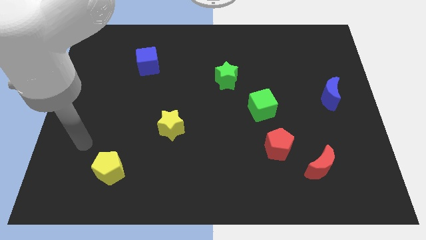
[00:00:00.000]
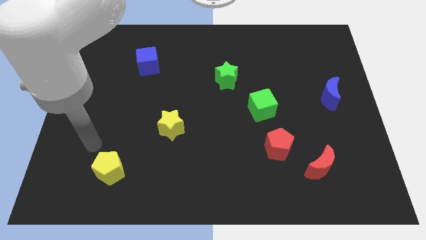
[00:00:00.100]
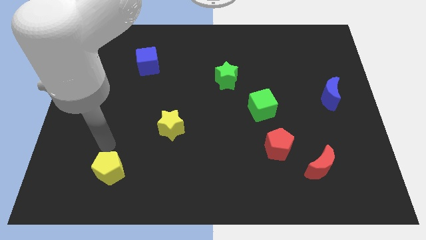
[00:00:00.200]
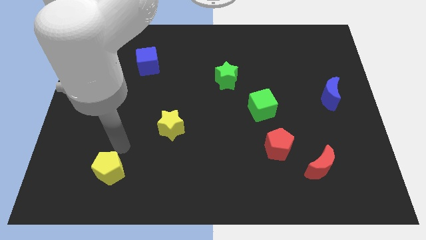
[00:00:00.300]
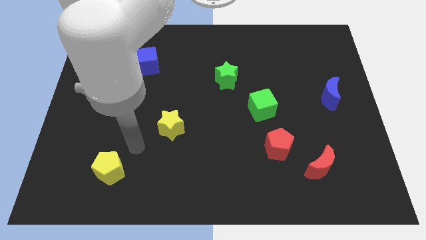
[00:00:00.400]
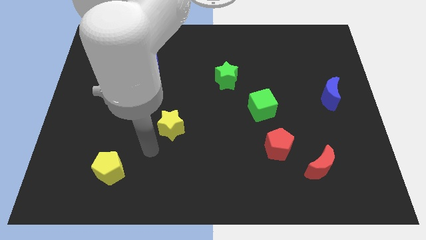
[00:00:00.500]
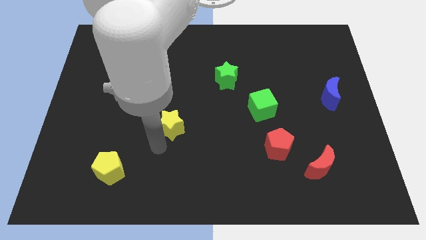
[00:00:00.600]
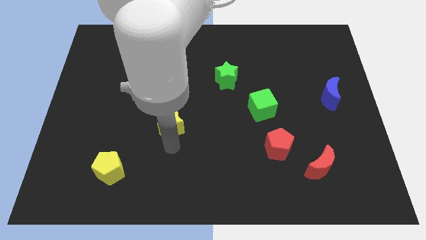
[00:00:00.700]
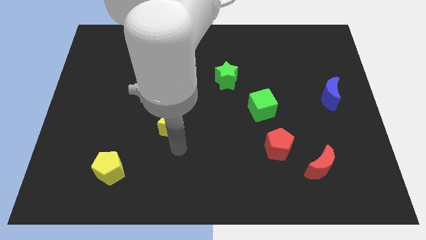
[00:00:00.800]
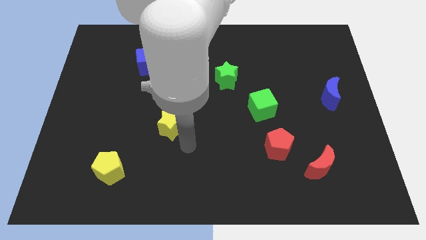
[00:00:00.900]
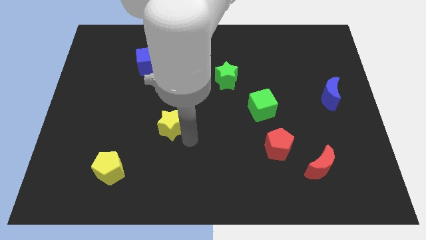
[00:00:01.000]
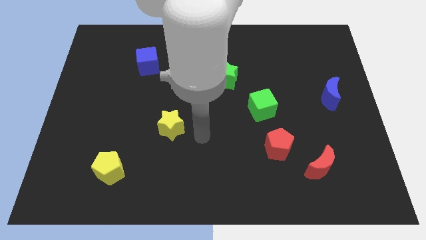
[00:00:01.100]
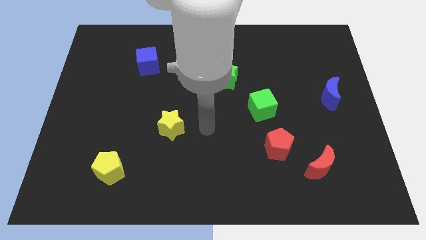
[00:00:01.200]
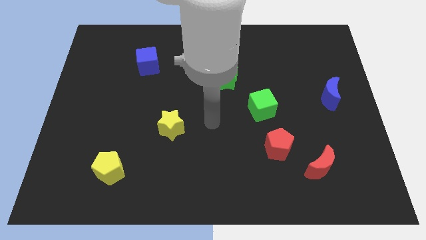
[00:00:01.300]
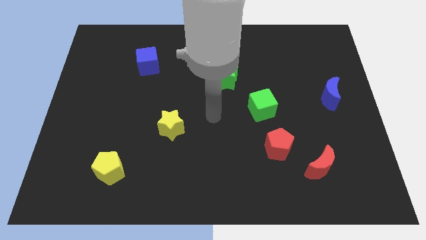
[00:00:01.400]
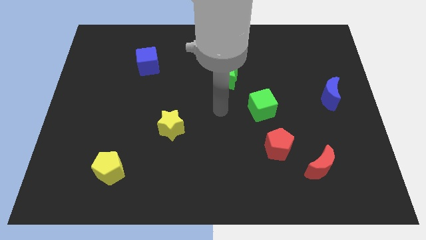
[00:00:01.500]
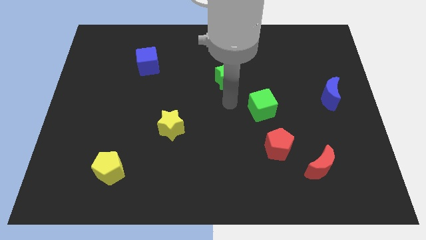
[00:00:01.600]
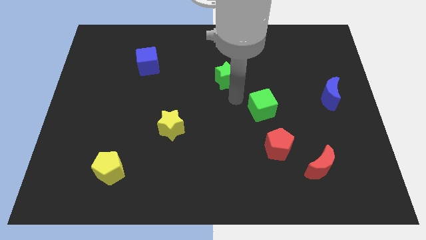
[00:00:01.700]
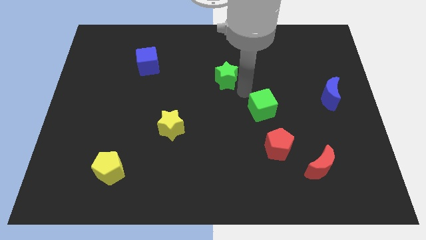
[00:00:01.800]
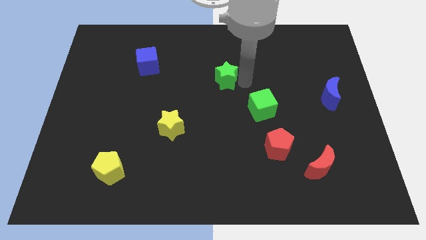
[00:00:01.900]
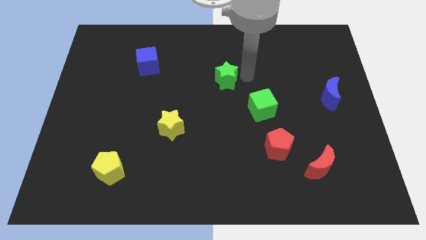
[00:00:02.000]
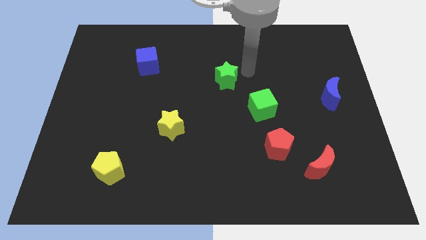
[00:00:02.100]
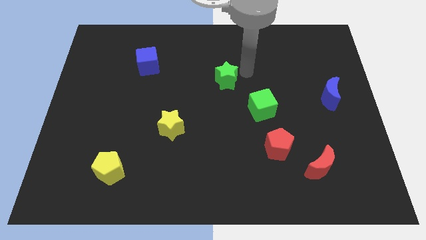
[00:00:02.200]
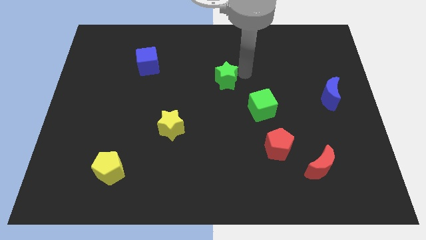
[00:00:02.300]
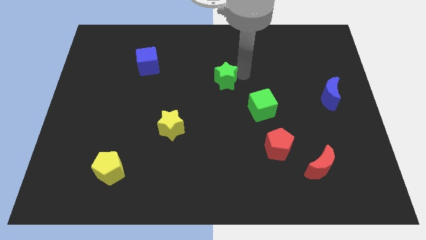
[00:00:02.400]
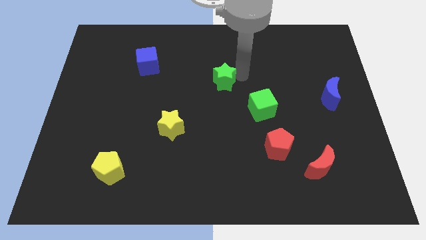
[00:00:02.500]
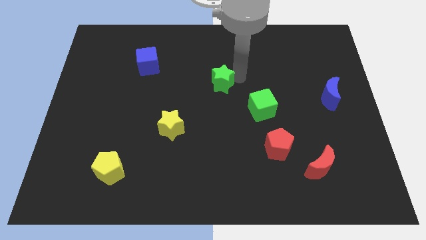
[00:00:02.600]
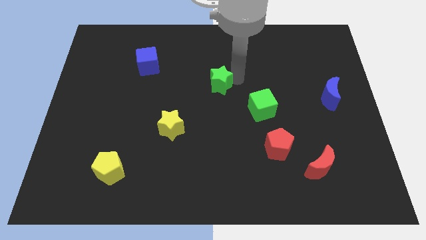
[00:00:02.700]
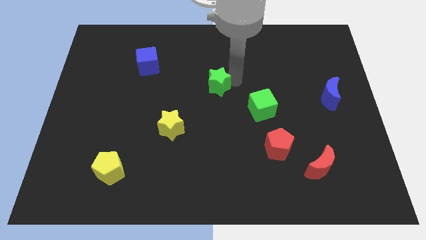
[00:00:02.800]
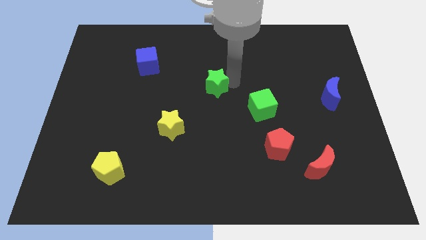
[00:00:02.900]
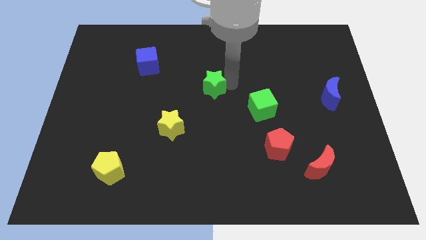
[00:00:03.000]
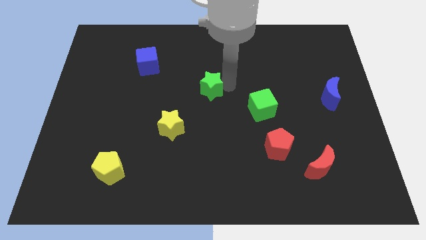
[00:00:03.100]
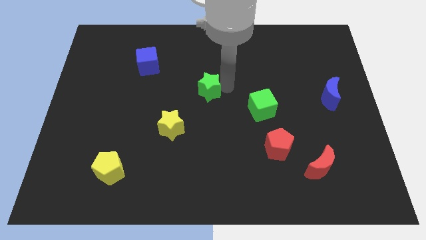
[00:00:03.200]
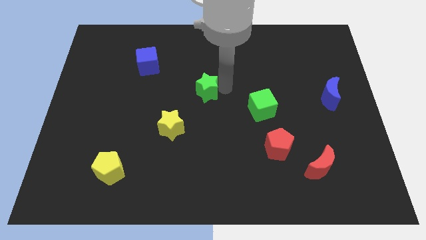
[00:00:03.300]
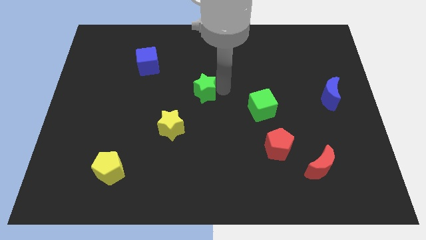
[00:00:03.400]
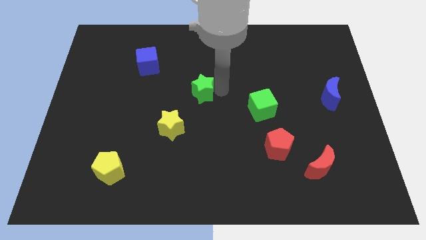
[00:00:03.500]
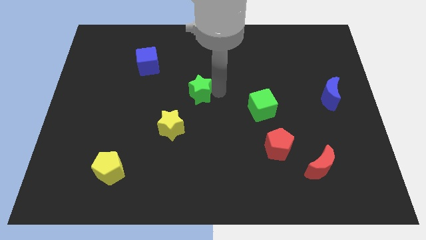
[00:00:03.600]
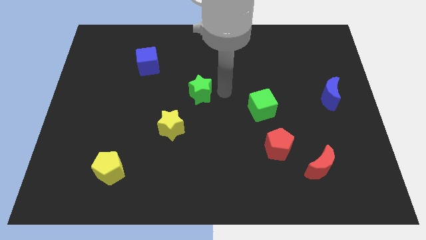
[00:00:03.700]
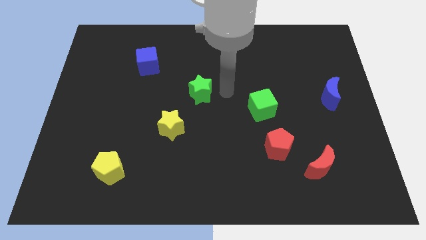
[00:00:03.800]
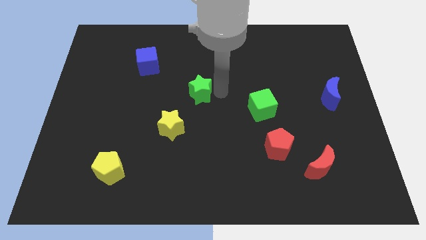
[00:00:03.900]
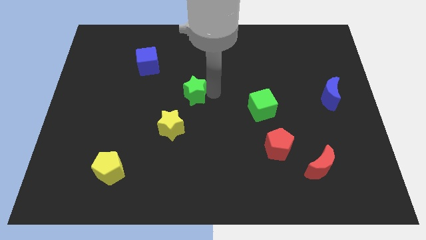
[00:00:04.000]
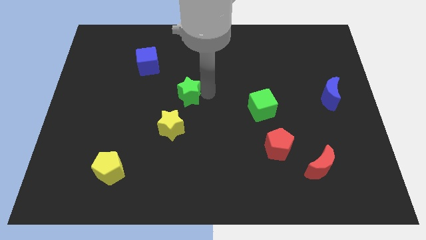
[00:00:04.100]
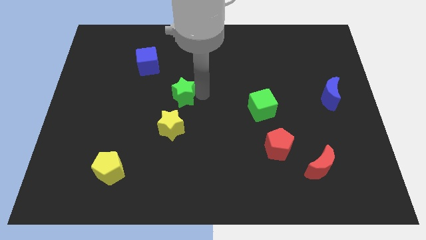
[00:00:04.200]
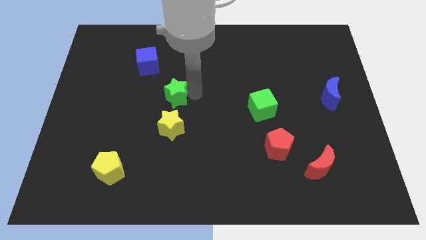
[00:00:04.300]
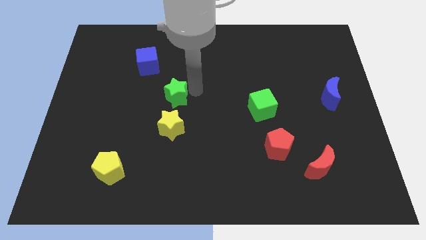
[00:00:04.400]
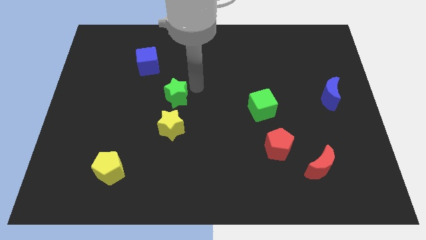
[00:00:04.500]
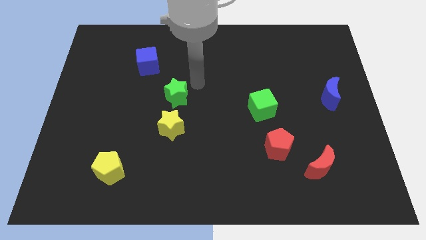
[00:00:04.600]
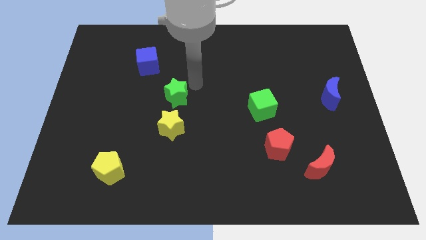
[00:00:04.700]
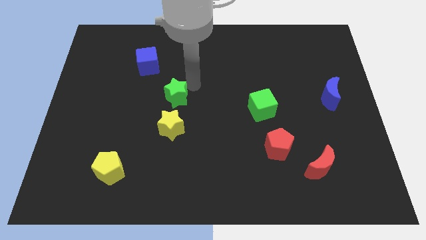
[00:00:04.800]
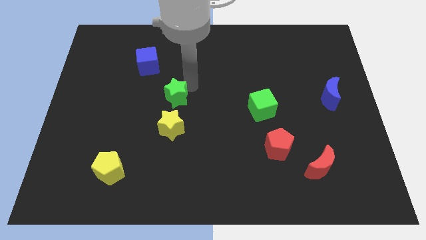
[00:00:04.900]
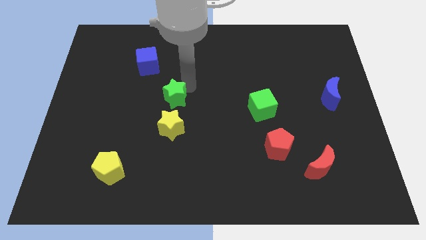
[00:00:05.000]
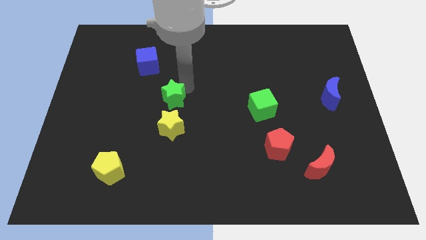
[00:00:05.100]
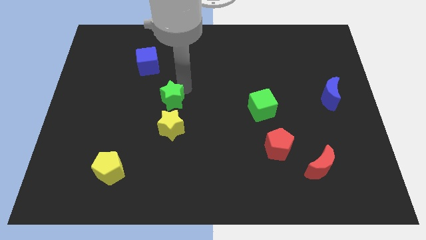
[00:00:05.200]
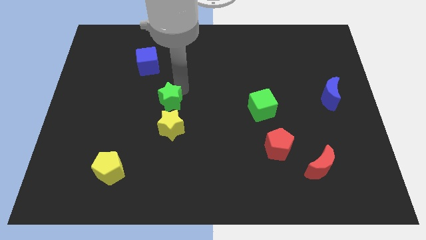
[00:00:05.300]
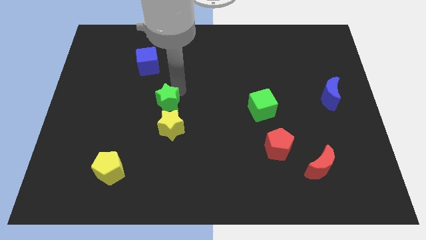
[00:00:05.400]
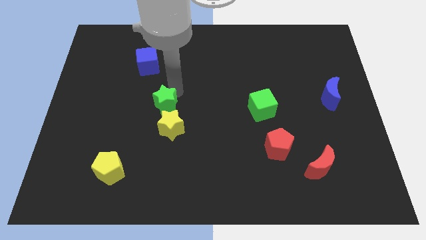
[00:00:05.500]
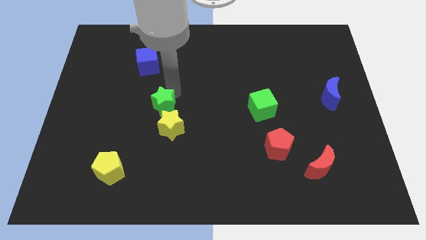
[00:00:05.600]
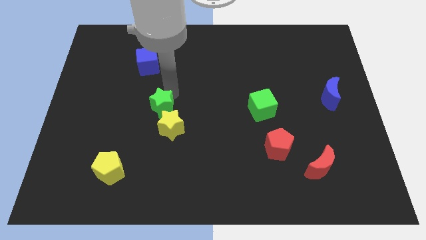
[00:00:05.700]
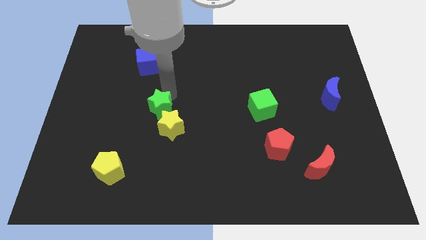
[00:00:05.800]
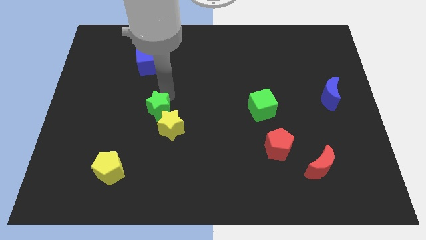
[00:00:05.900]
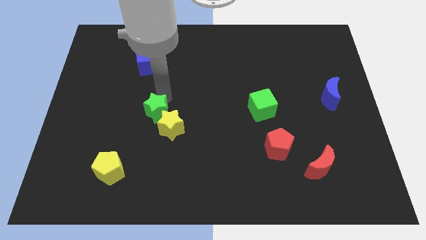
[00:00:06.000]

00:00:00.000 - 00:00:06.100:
slide the green star to the left of the yellow star

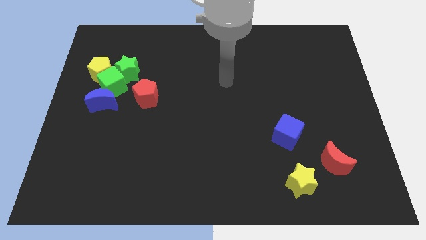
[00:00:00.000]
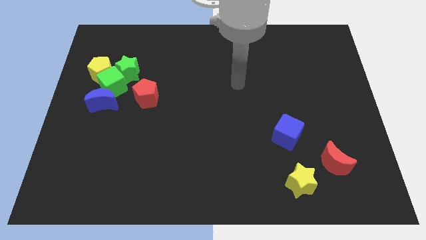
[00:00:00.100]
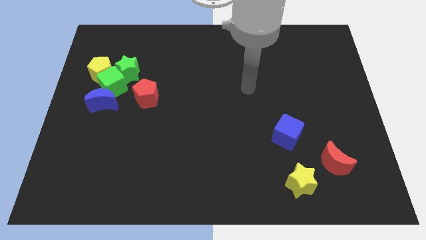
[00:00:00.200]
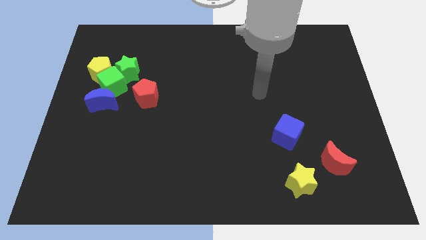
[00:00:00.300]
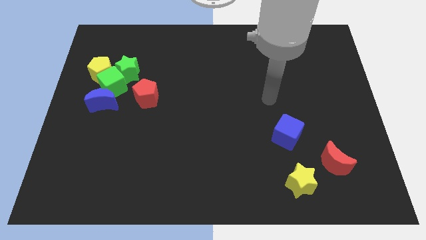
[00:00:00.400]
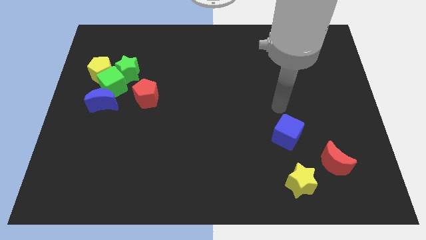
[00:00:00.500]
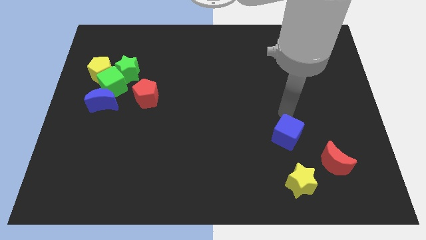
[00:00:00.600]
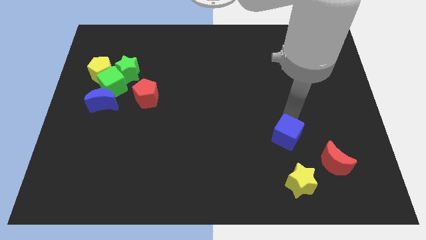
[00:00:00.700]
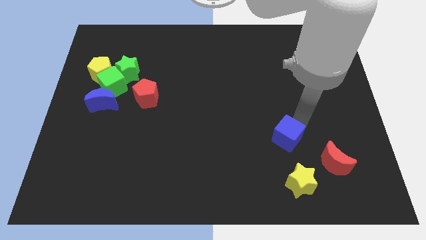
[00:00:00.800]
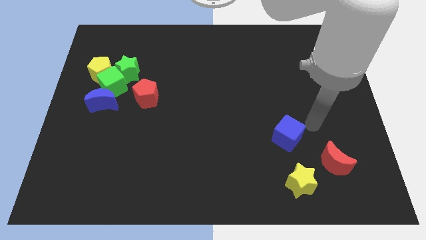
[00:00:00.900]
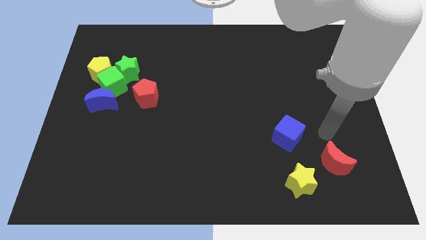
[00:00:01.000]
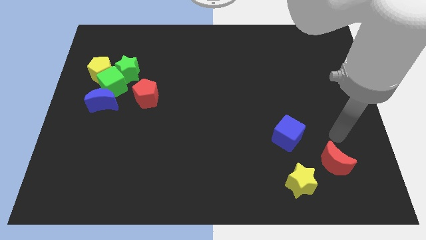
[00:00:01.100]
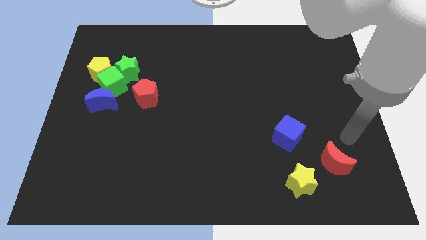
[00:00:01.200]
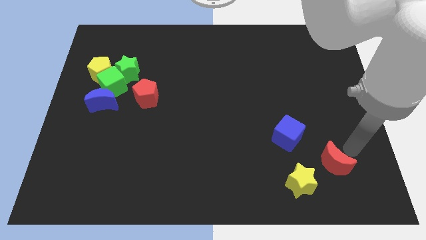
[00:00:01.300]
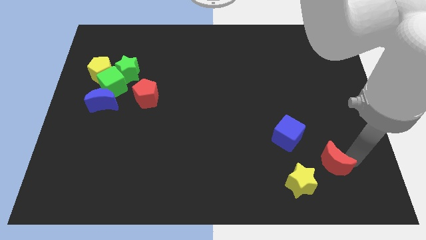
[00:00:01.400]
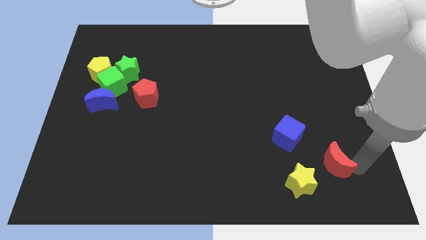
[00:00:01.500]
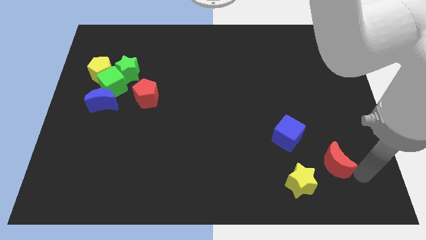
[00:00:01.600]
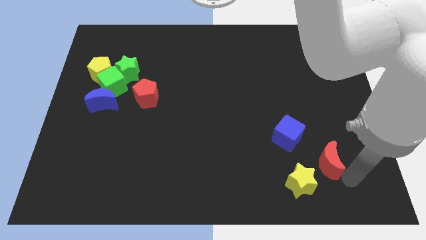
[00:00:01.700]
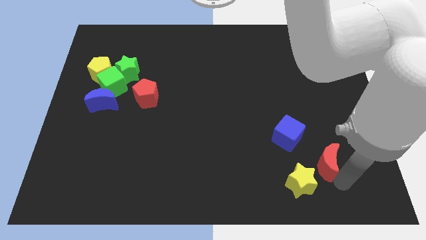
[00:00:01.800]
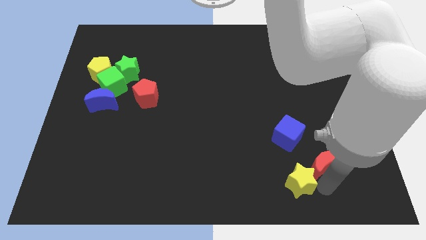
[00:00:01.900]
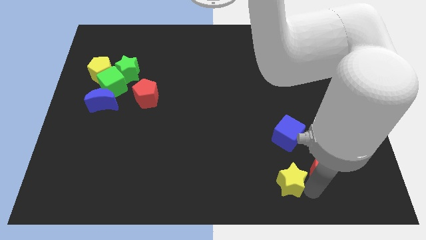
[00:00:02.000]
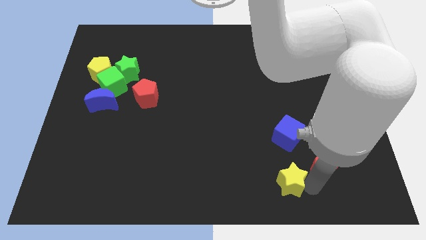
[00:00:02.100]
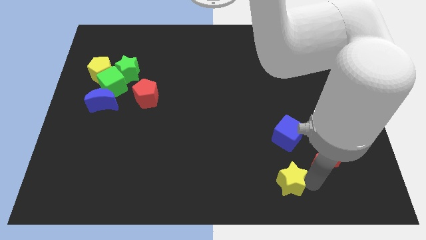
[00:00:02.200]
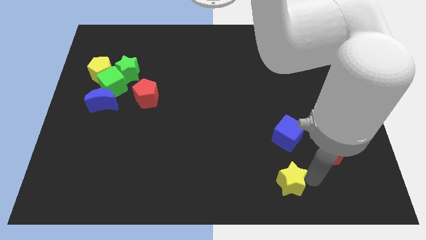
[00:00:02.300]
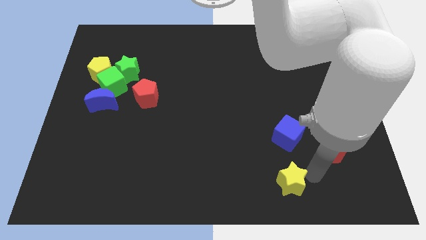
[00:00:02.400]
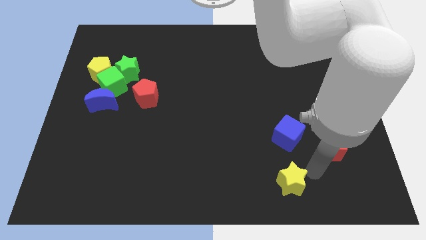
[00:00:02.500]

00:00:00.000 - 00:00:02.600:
push the red moon right of the blue cube
